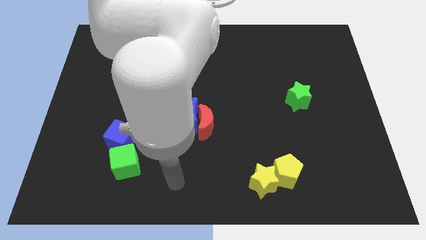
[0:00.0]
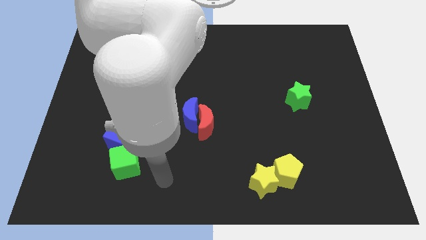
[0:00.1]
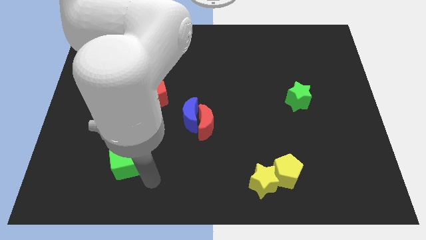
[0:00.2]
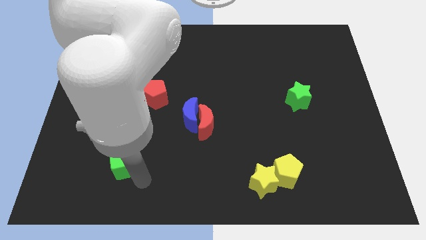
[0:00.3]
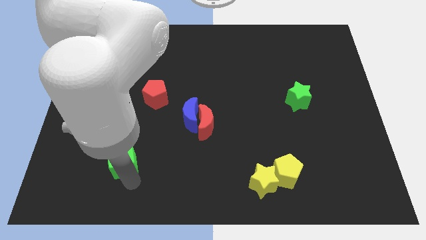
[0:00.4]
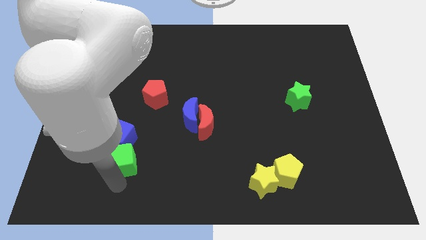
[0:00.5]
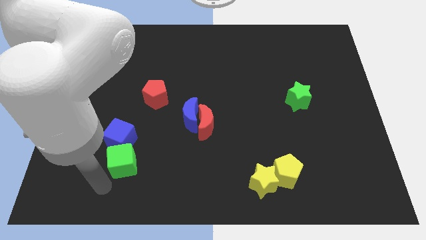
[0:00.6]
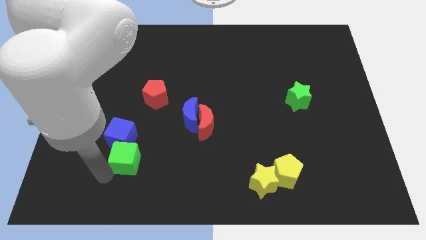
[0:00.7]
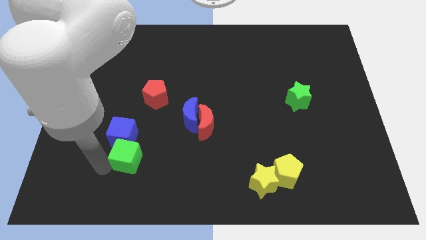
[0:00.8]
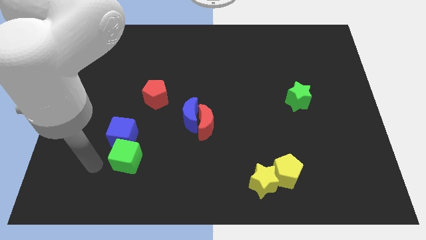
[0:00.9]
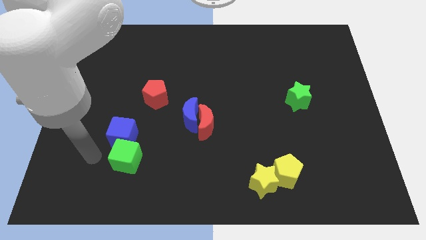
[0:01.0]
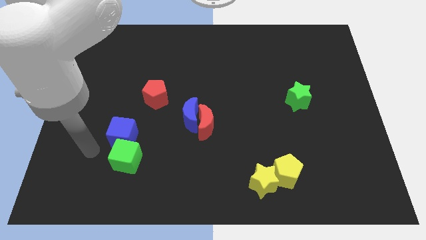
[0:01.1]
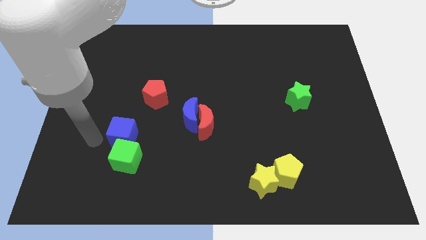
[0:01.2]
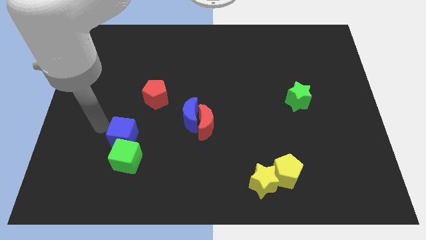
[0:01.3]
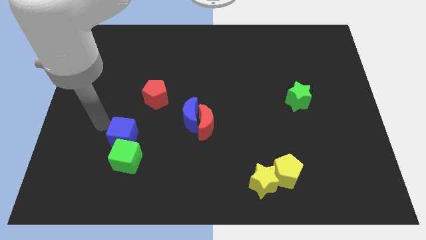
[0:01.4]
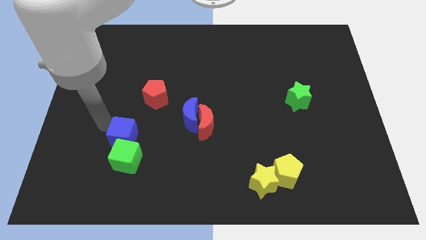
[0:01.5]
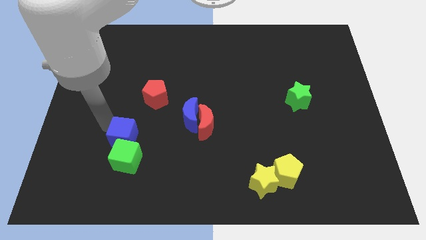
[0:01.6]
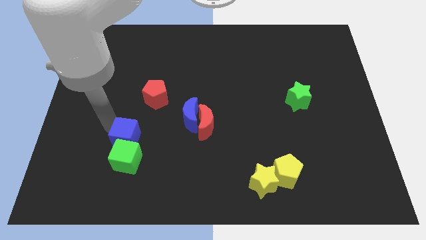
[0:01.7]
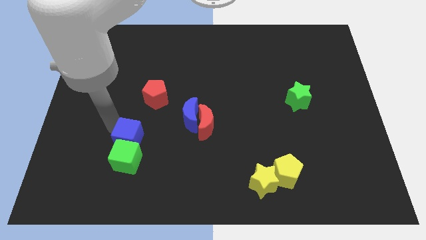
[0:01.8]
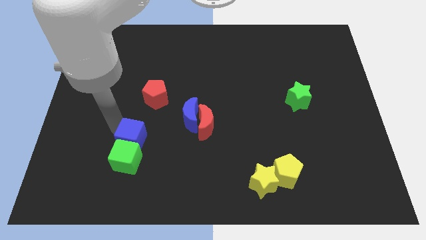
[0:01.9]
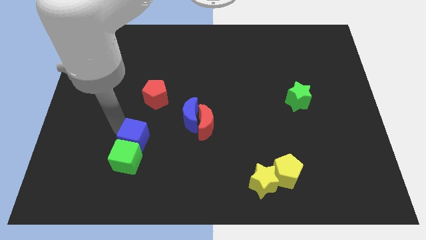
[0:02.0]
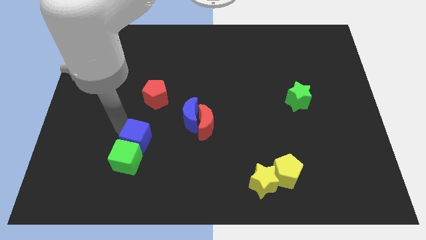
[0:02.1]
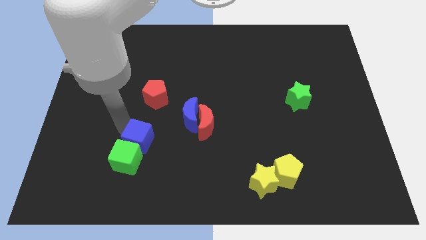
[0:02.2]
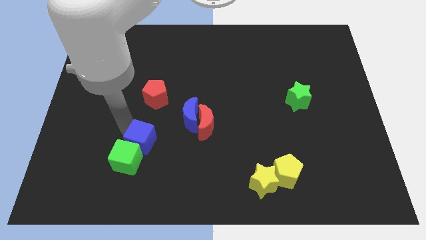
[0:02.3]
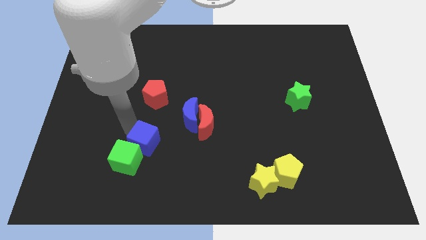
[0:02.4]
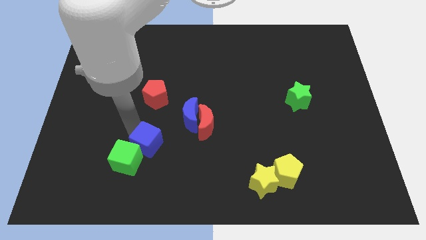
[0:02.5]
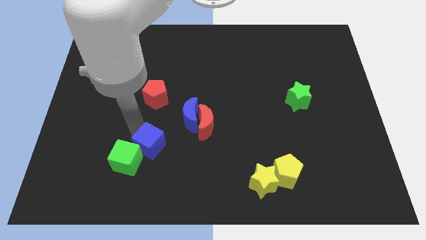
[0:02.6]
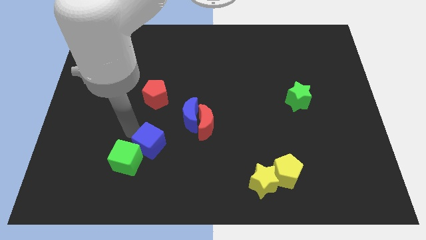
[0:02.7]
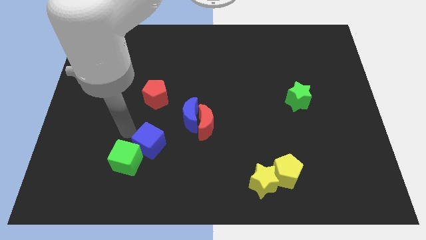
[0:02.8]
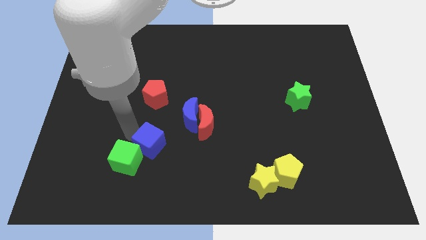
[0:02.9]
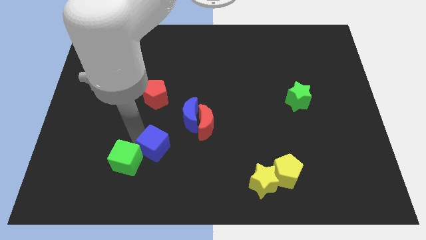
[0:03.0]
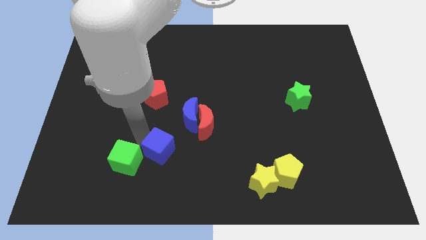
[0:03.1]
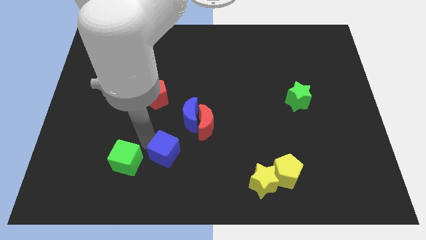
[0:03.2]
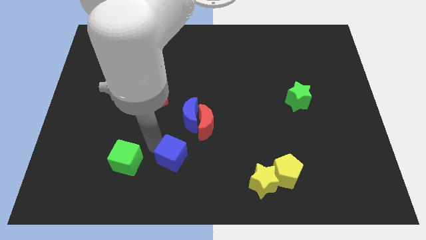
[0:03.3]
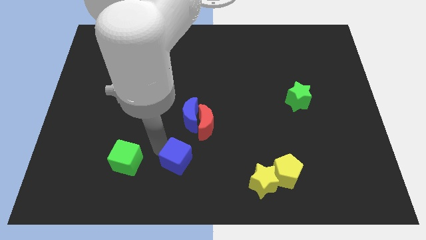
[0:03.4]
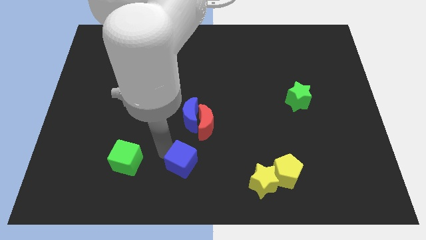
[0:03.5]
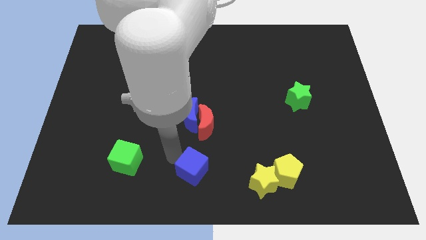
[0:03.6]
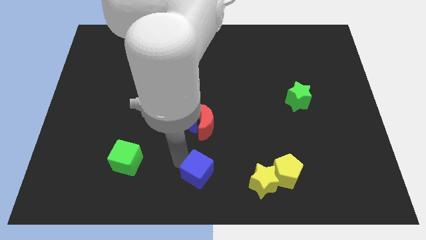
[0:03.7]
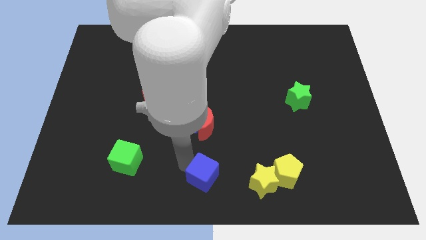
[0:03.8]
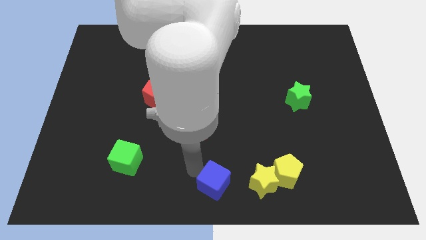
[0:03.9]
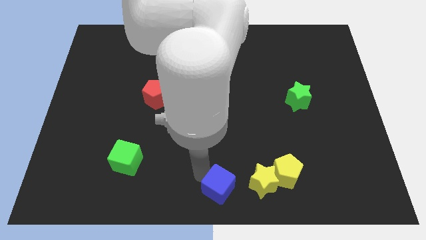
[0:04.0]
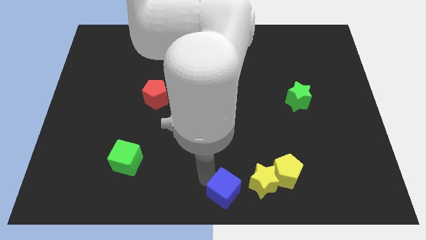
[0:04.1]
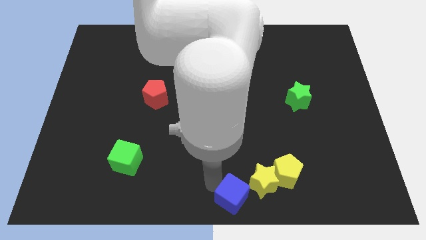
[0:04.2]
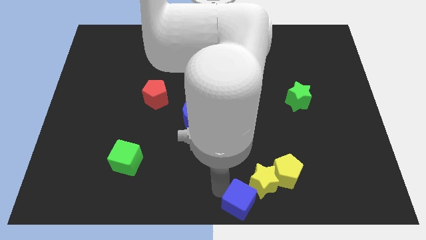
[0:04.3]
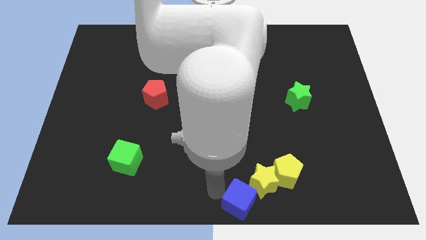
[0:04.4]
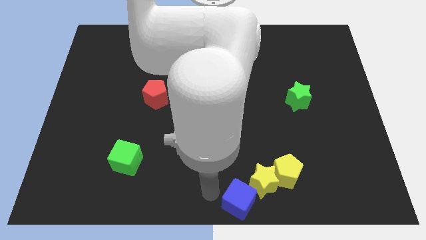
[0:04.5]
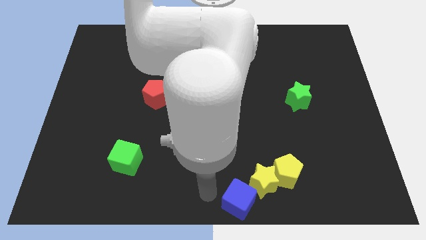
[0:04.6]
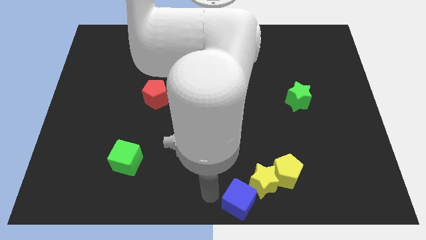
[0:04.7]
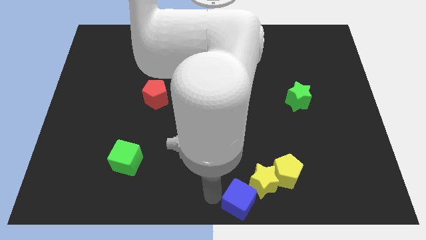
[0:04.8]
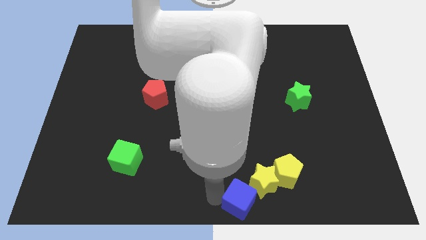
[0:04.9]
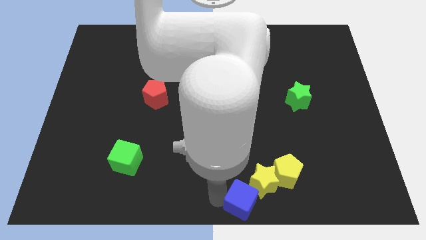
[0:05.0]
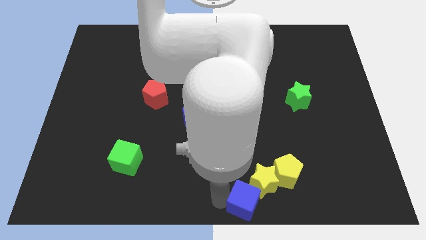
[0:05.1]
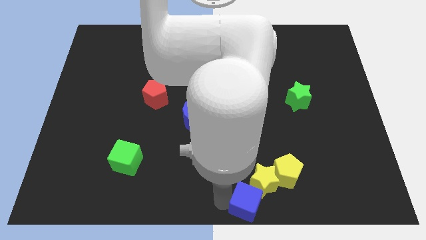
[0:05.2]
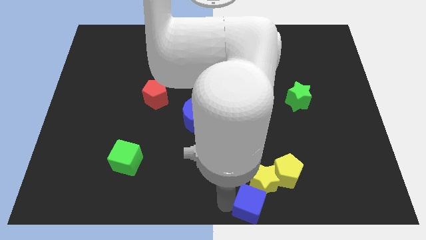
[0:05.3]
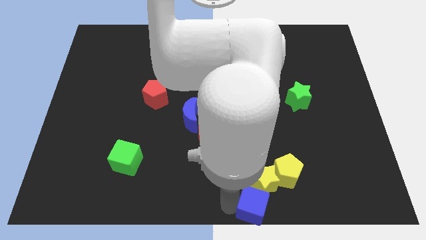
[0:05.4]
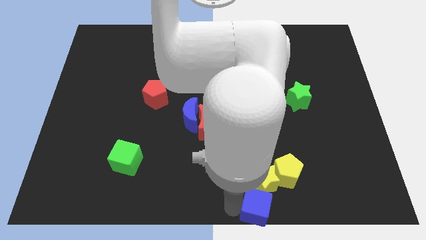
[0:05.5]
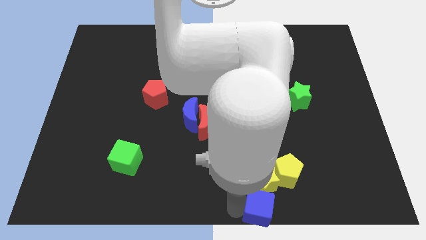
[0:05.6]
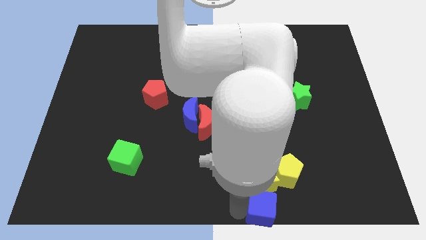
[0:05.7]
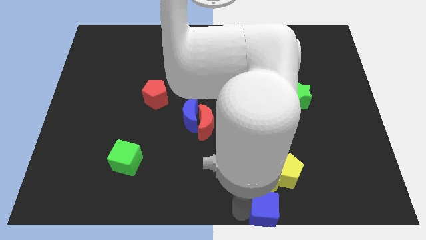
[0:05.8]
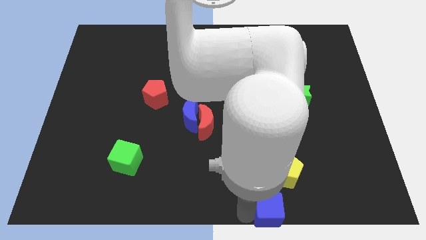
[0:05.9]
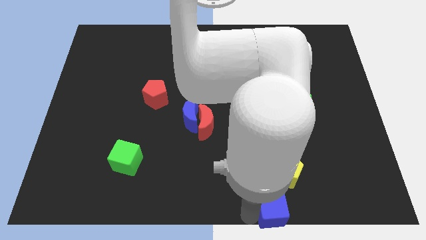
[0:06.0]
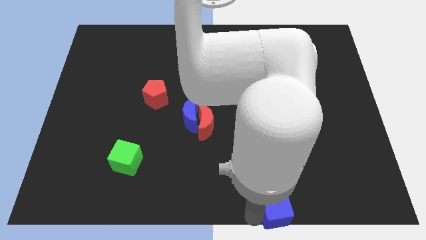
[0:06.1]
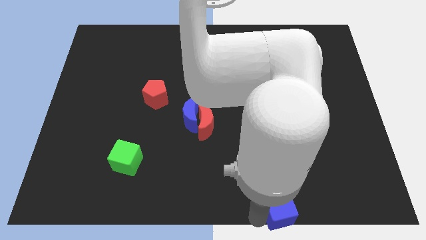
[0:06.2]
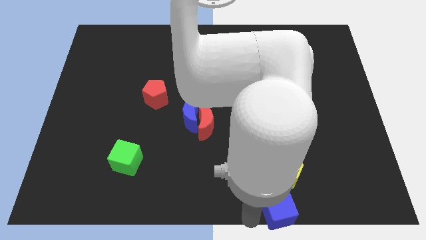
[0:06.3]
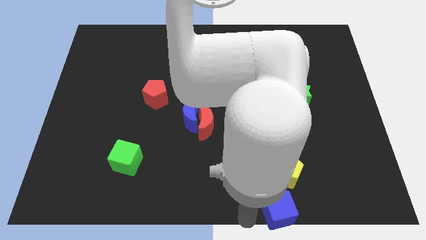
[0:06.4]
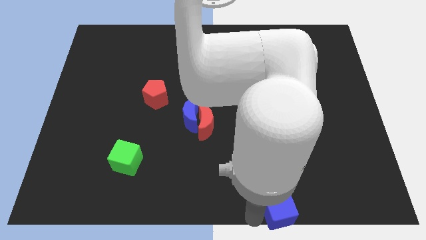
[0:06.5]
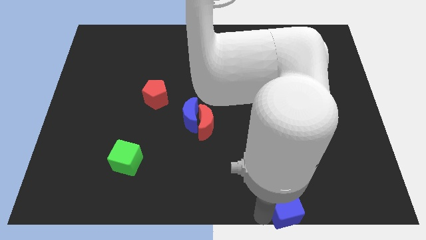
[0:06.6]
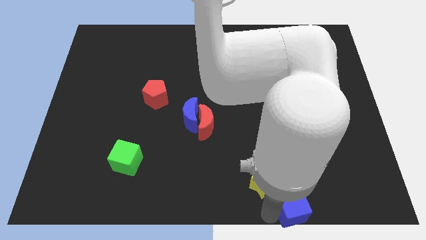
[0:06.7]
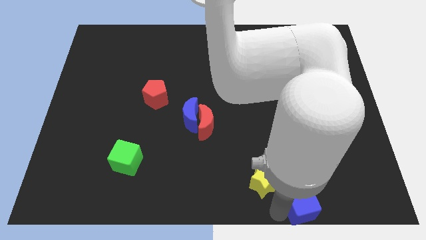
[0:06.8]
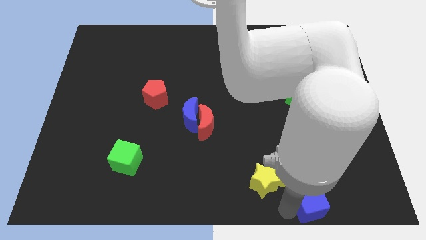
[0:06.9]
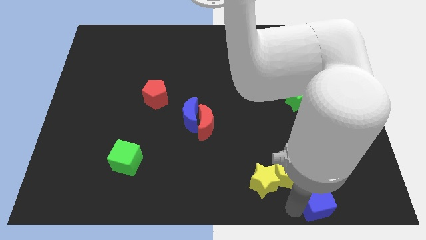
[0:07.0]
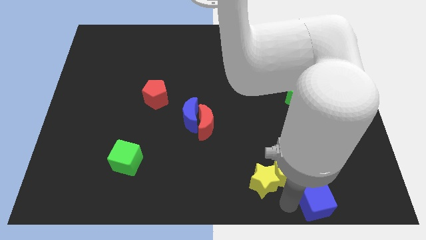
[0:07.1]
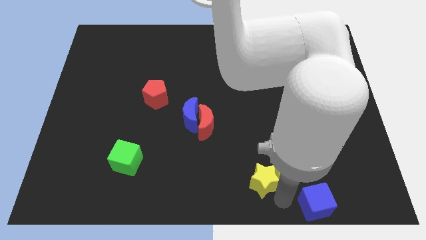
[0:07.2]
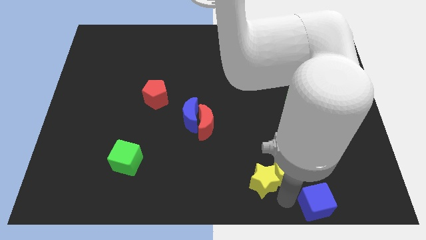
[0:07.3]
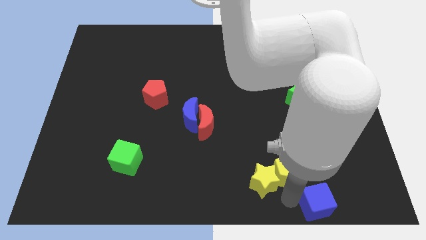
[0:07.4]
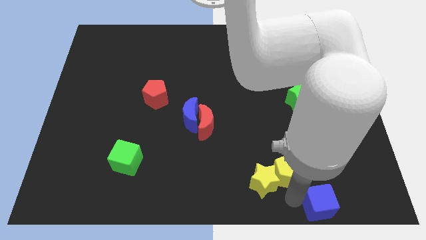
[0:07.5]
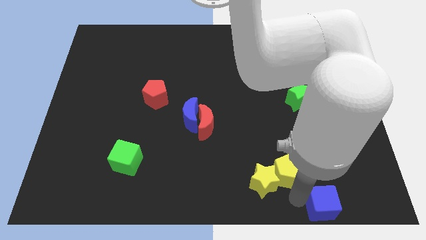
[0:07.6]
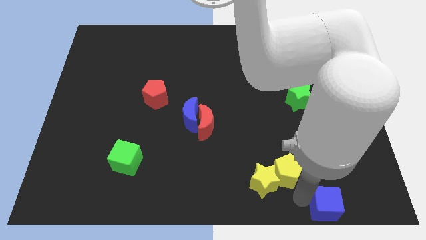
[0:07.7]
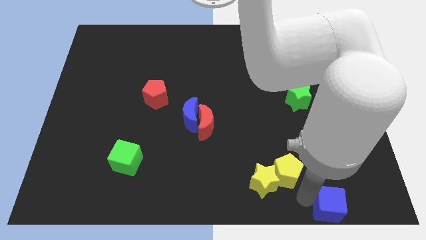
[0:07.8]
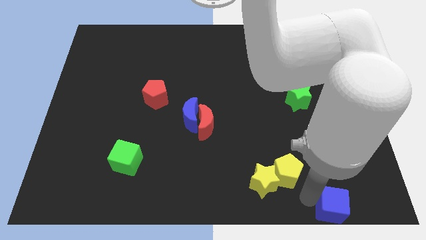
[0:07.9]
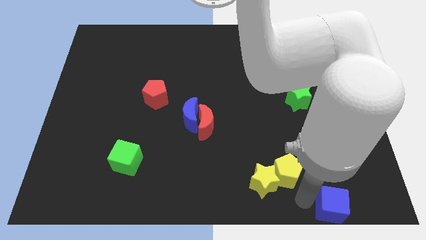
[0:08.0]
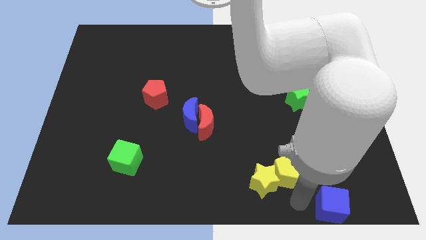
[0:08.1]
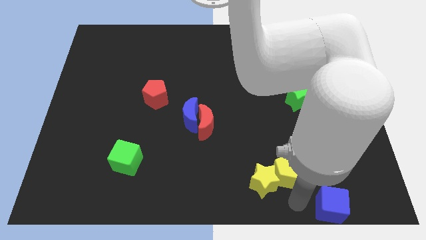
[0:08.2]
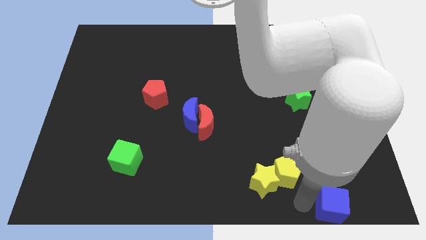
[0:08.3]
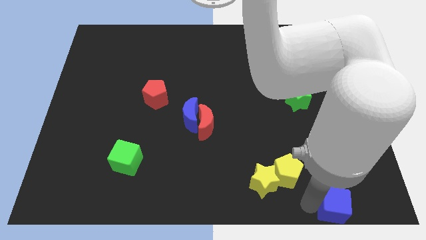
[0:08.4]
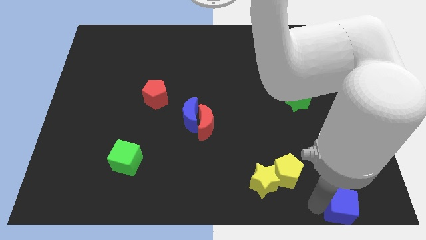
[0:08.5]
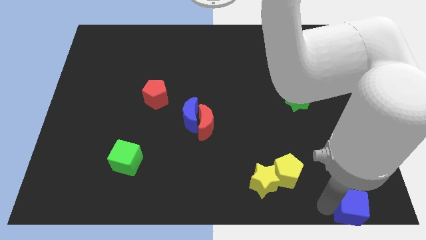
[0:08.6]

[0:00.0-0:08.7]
push the blue cube to the bottom right of the board
